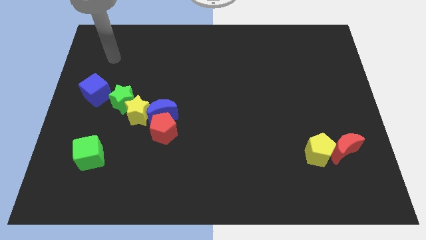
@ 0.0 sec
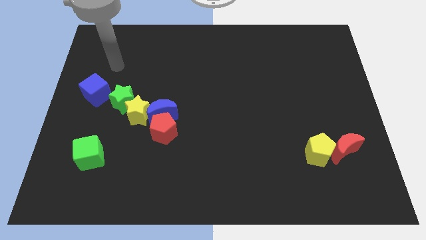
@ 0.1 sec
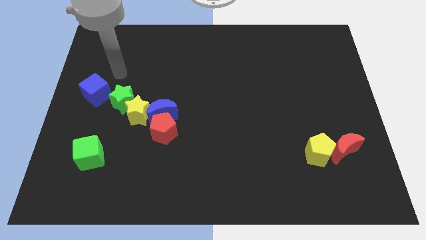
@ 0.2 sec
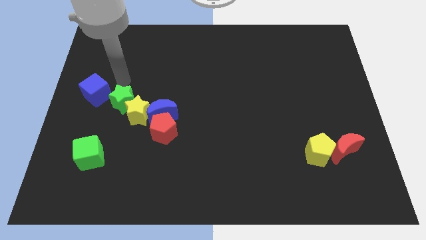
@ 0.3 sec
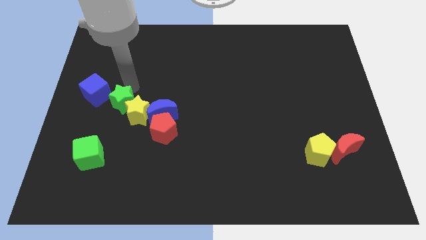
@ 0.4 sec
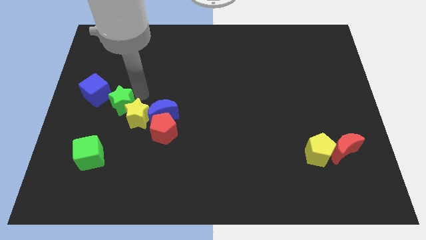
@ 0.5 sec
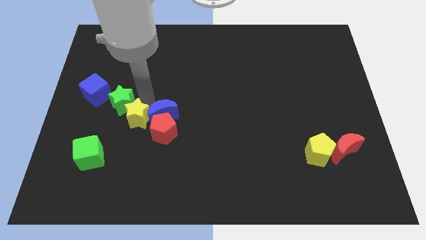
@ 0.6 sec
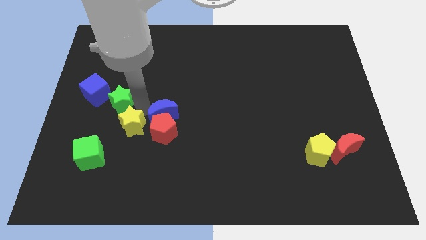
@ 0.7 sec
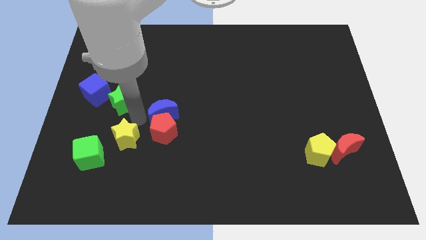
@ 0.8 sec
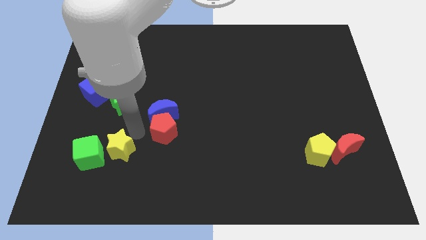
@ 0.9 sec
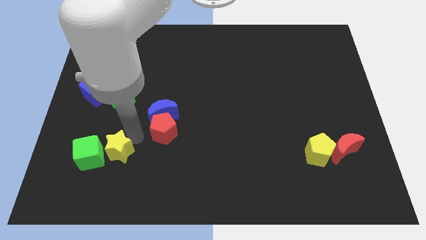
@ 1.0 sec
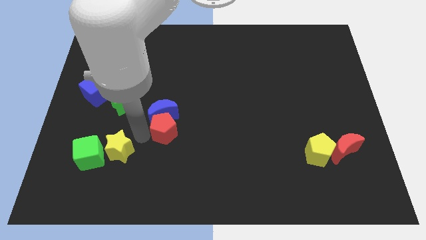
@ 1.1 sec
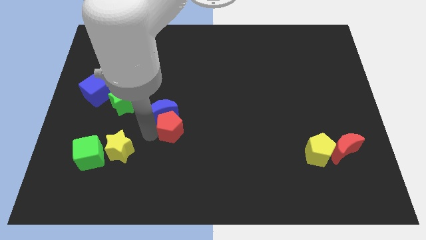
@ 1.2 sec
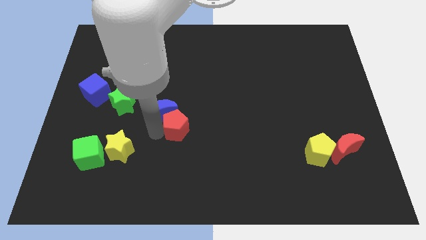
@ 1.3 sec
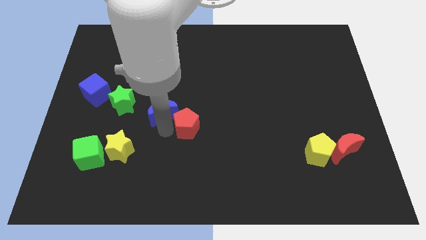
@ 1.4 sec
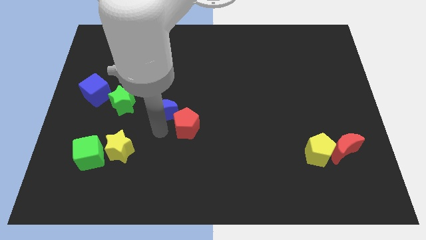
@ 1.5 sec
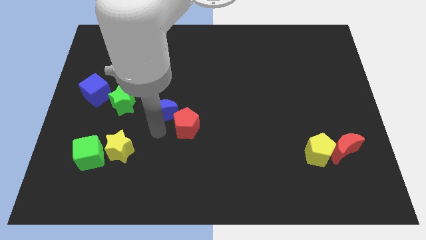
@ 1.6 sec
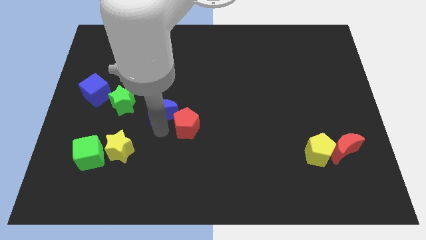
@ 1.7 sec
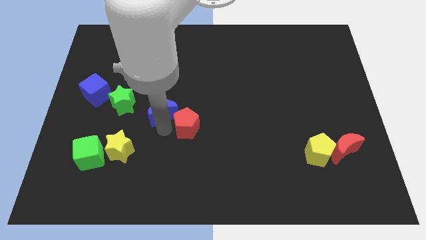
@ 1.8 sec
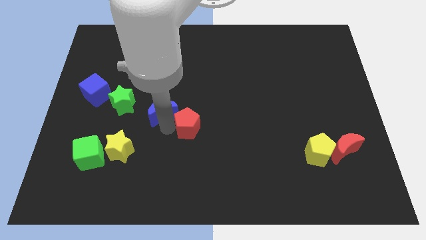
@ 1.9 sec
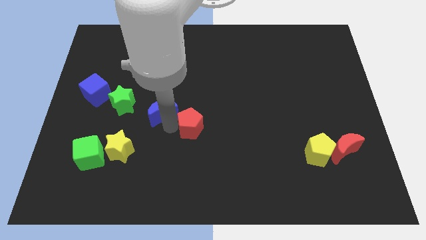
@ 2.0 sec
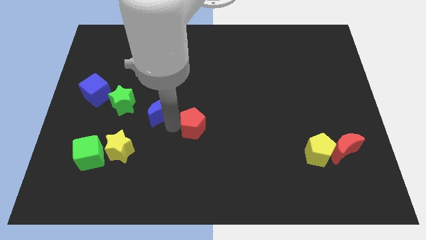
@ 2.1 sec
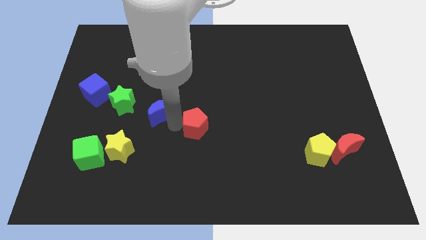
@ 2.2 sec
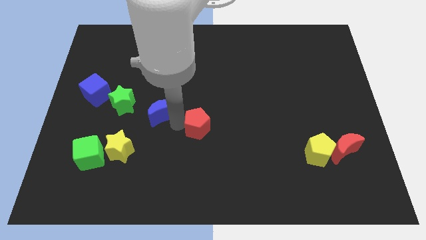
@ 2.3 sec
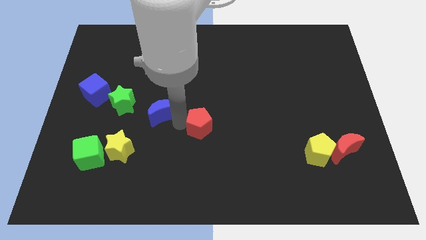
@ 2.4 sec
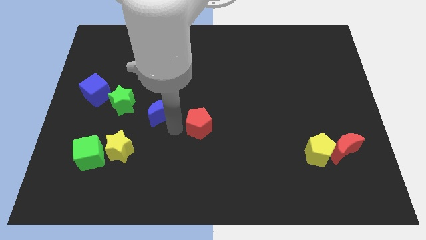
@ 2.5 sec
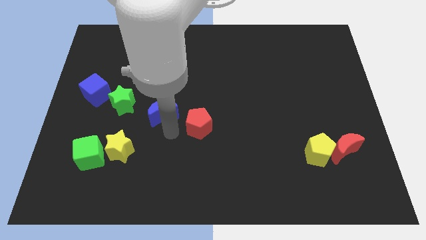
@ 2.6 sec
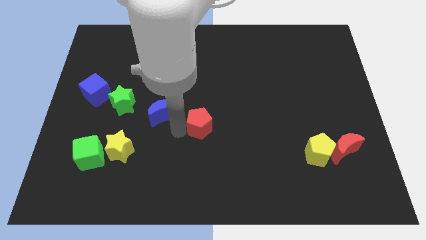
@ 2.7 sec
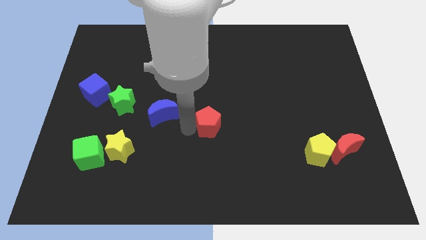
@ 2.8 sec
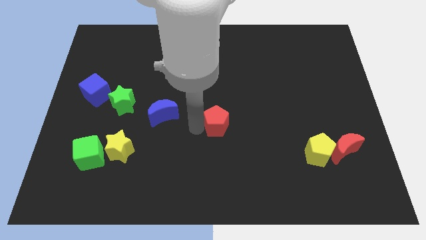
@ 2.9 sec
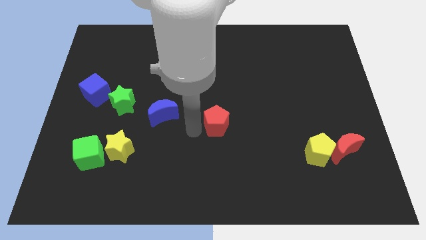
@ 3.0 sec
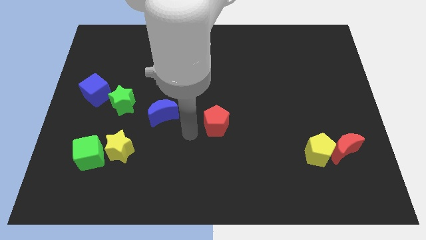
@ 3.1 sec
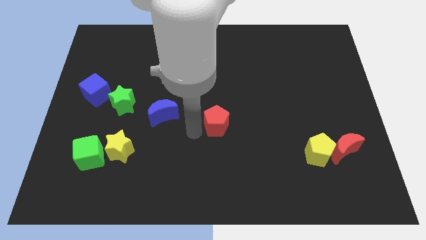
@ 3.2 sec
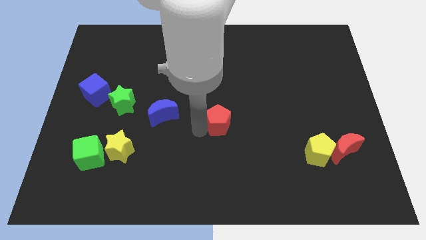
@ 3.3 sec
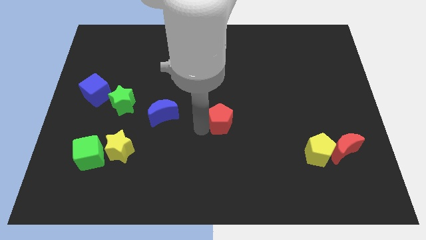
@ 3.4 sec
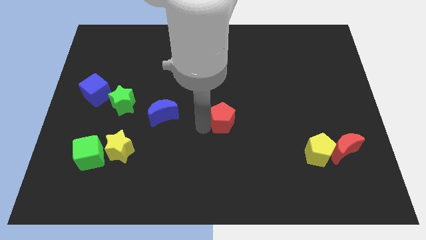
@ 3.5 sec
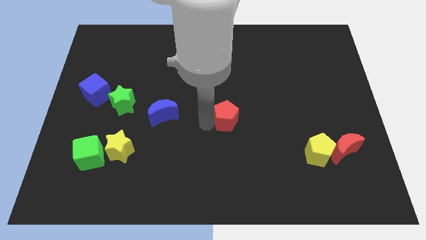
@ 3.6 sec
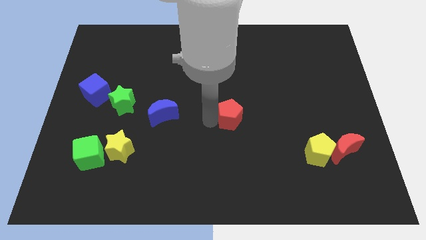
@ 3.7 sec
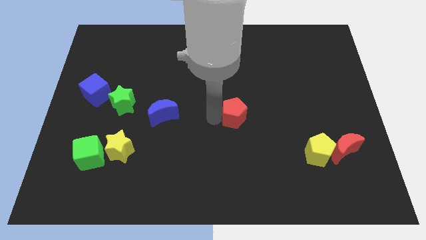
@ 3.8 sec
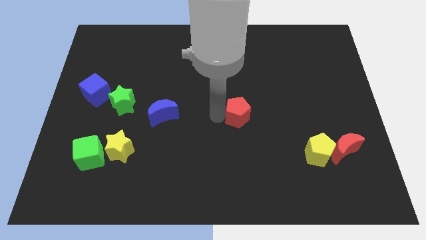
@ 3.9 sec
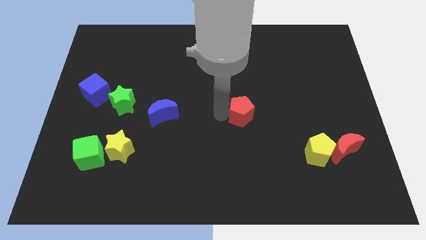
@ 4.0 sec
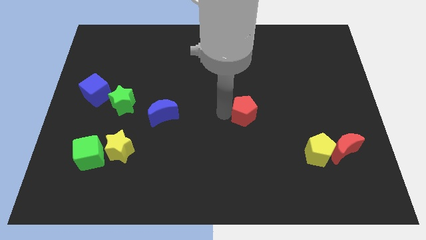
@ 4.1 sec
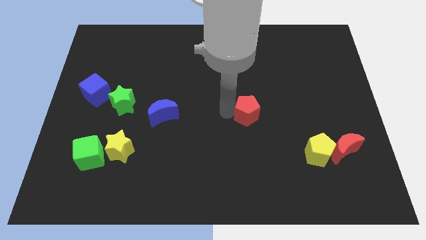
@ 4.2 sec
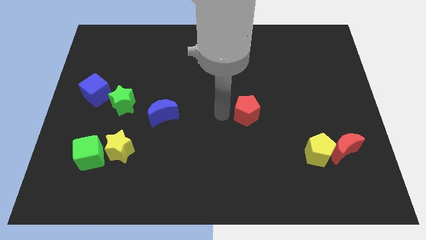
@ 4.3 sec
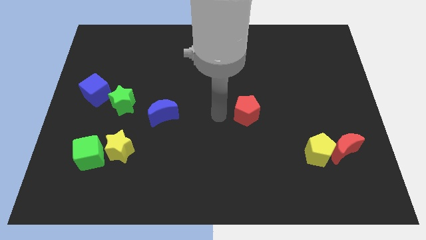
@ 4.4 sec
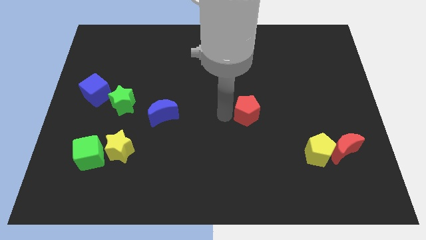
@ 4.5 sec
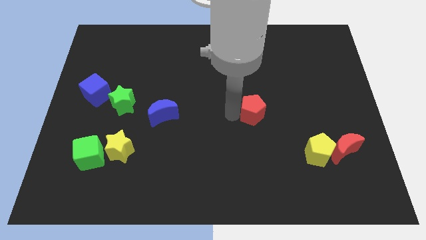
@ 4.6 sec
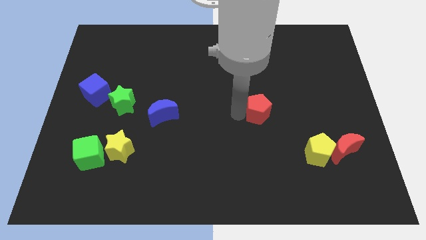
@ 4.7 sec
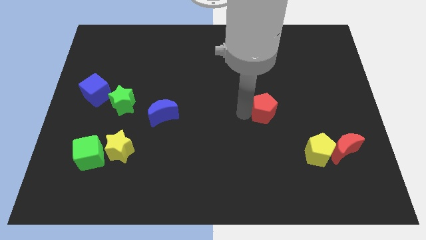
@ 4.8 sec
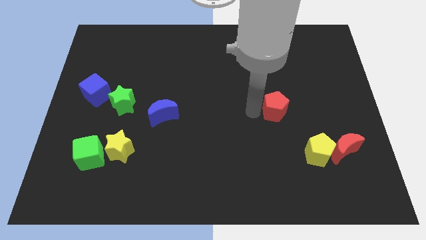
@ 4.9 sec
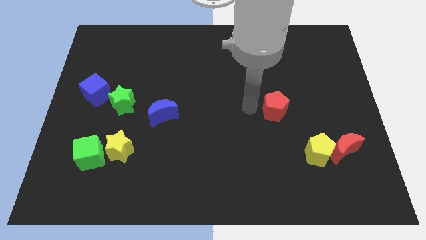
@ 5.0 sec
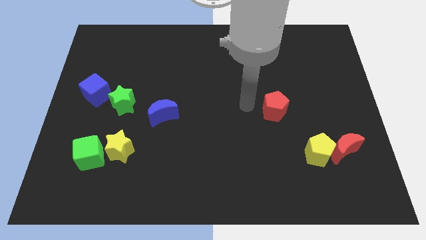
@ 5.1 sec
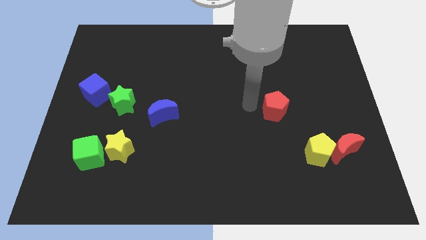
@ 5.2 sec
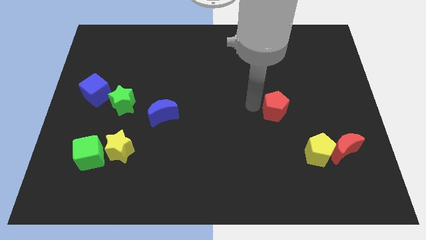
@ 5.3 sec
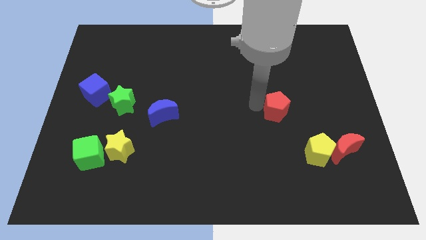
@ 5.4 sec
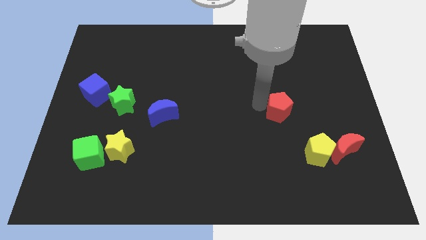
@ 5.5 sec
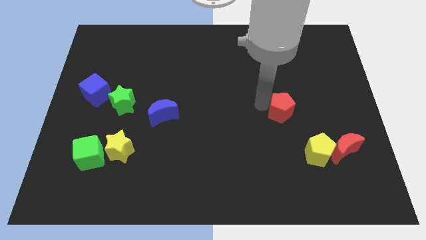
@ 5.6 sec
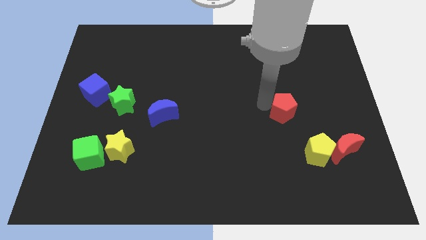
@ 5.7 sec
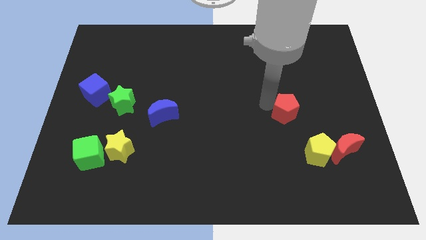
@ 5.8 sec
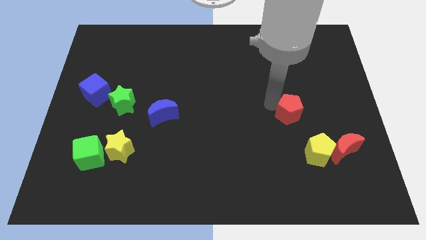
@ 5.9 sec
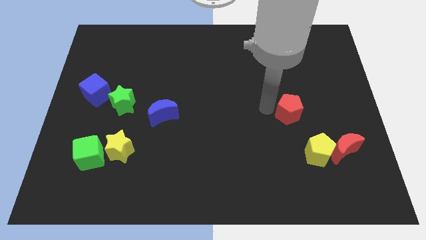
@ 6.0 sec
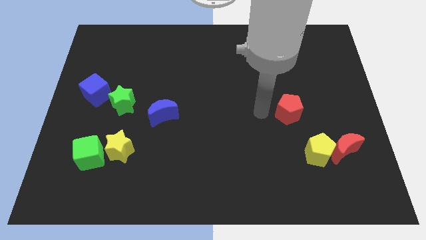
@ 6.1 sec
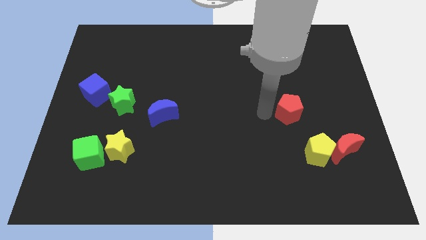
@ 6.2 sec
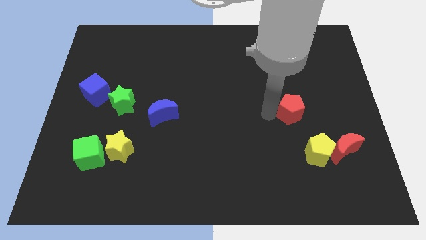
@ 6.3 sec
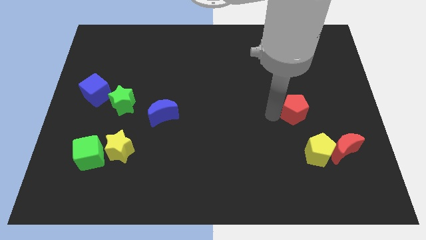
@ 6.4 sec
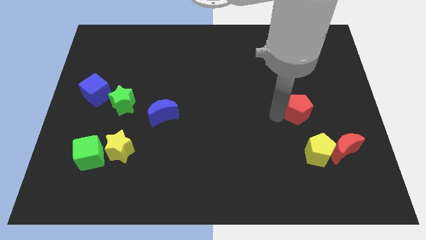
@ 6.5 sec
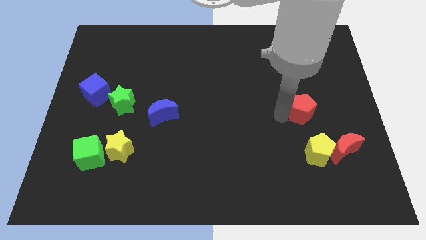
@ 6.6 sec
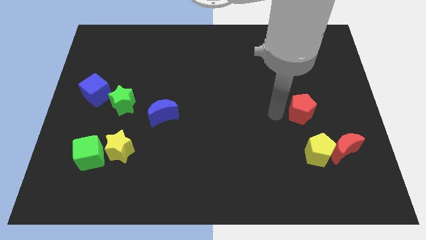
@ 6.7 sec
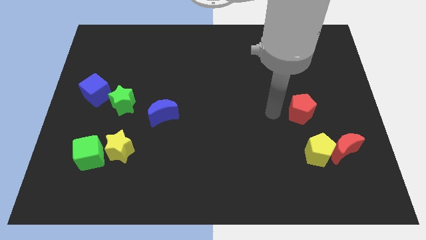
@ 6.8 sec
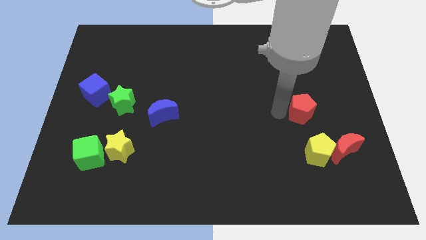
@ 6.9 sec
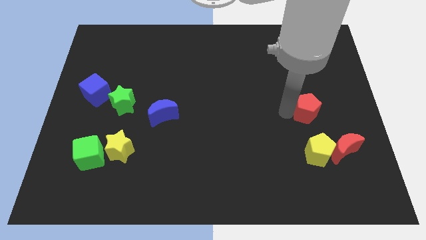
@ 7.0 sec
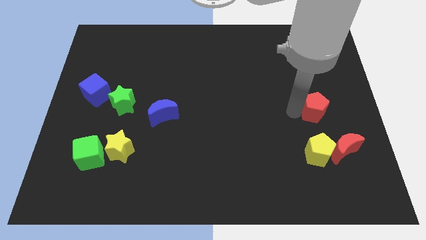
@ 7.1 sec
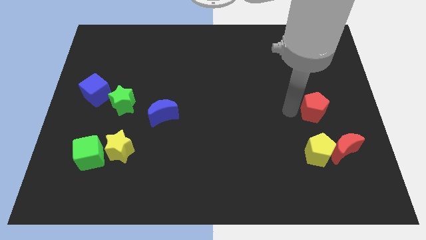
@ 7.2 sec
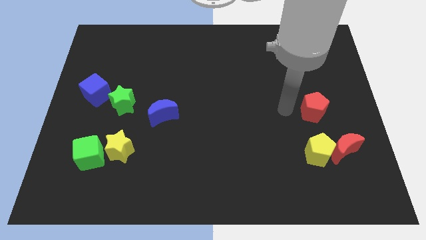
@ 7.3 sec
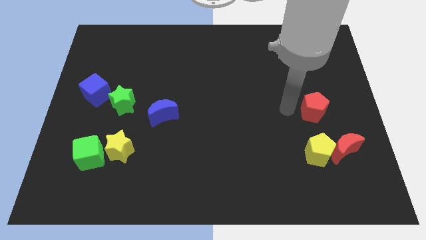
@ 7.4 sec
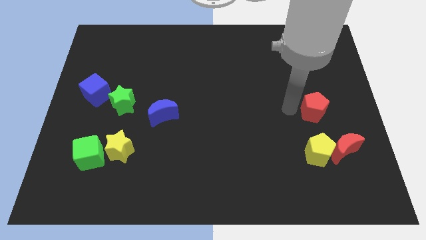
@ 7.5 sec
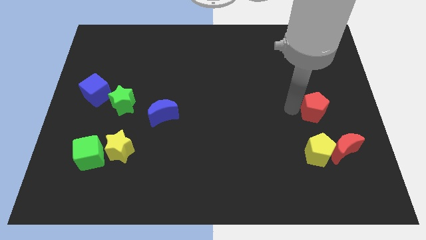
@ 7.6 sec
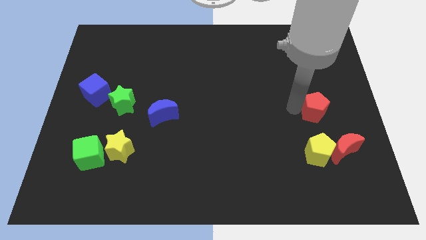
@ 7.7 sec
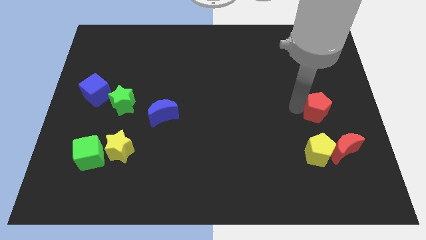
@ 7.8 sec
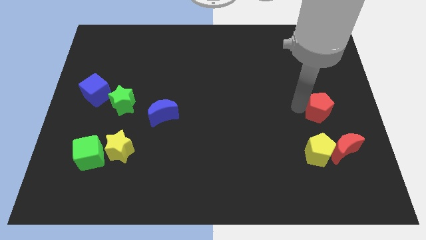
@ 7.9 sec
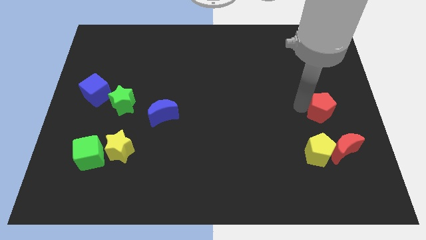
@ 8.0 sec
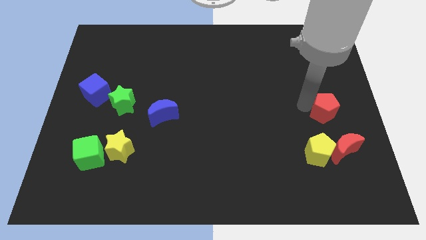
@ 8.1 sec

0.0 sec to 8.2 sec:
put the red pentagon to the right side of the board
